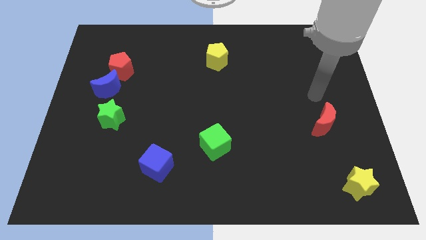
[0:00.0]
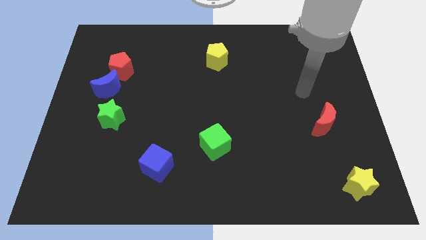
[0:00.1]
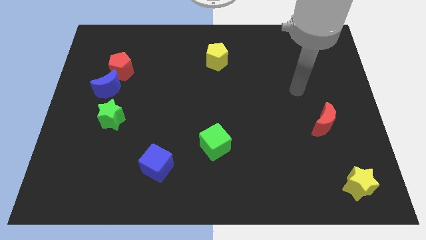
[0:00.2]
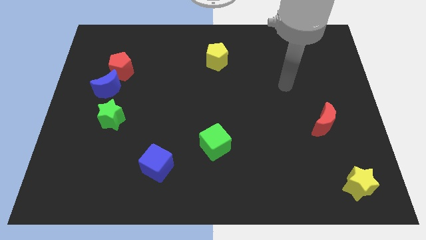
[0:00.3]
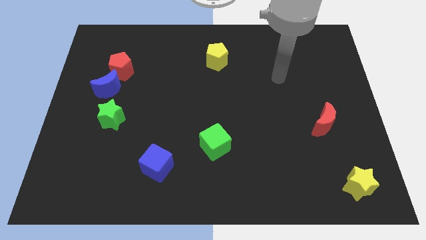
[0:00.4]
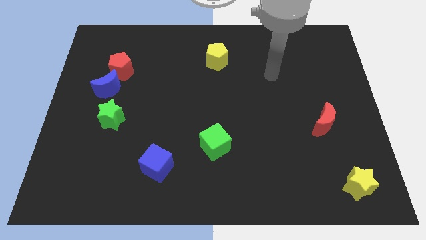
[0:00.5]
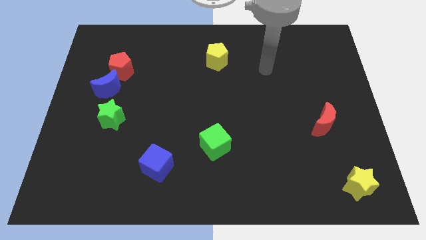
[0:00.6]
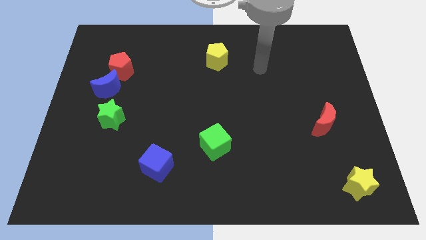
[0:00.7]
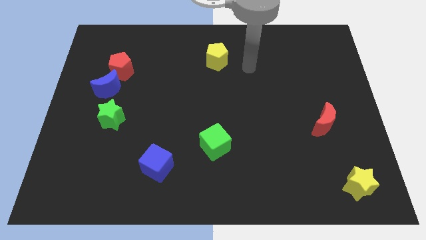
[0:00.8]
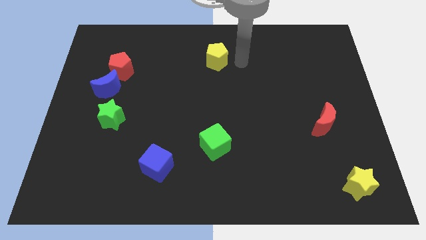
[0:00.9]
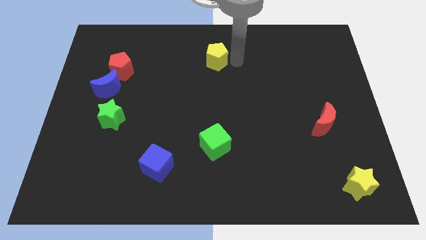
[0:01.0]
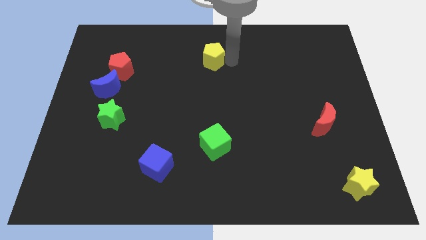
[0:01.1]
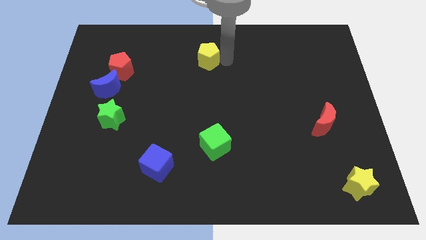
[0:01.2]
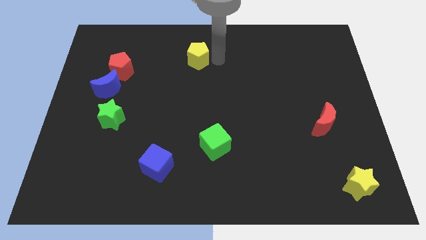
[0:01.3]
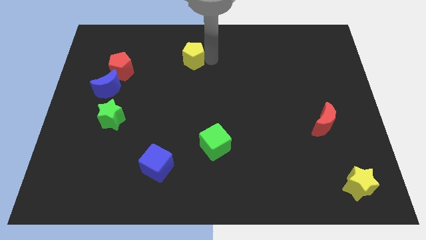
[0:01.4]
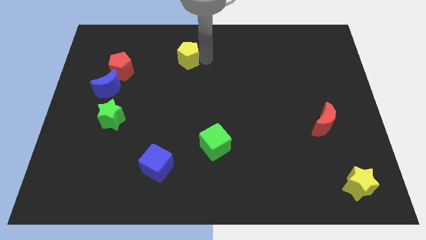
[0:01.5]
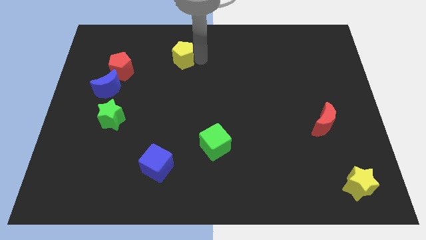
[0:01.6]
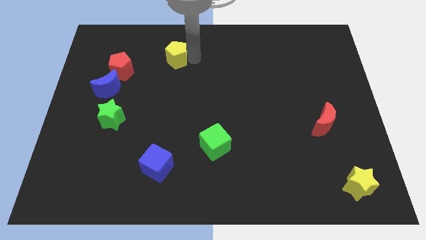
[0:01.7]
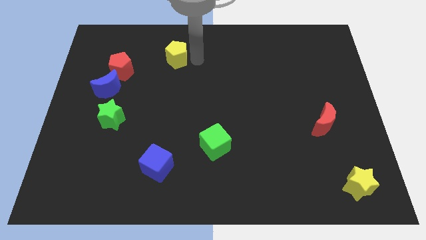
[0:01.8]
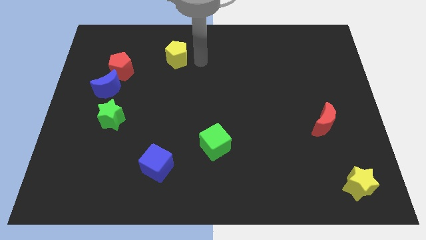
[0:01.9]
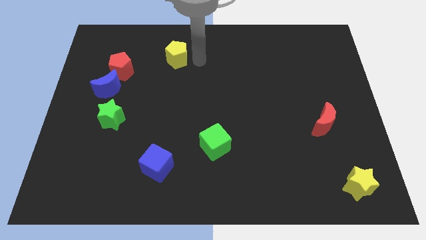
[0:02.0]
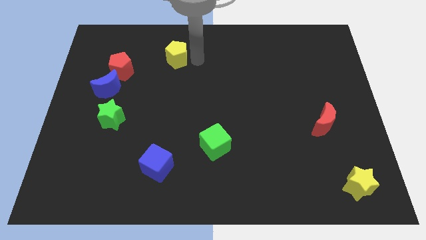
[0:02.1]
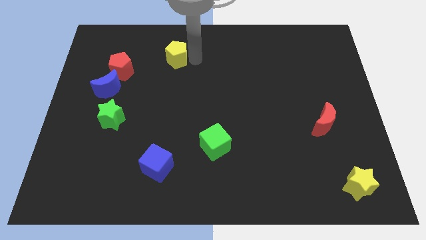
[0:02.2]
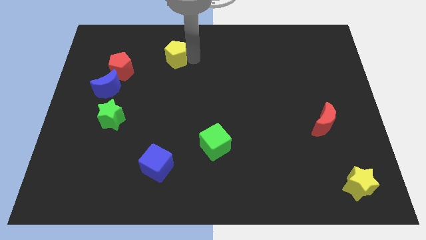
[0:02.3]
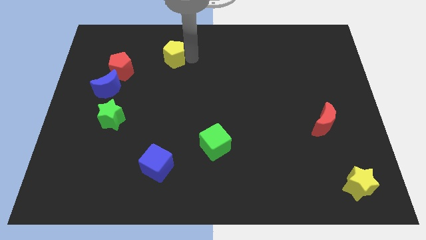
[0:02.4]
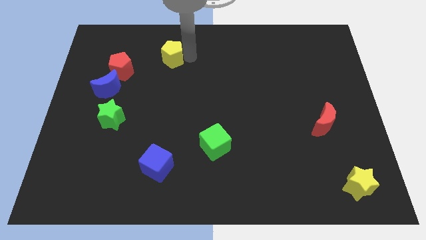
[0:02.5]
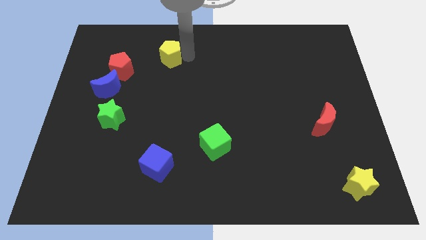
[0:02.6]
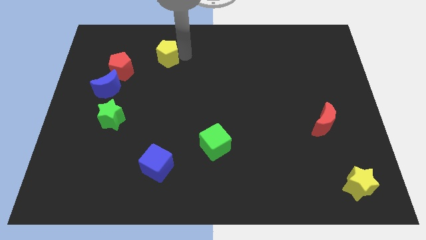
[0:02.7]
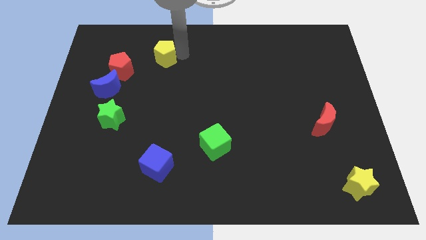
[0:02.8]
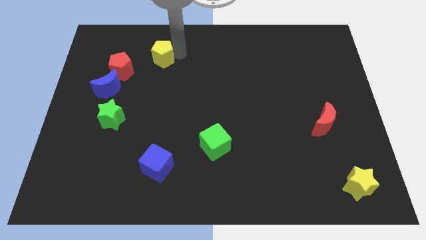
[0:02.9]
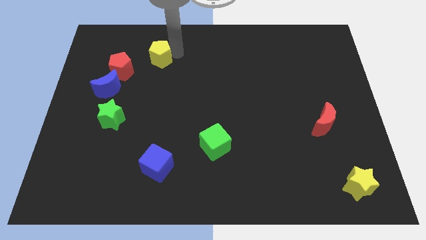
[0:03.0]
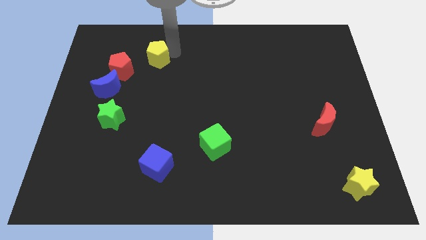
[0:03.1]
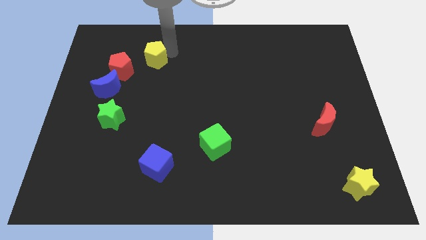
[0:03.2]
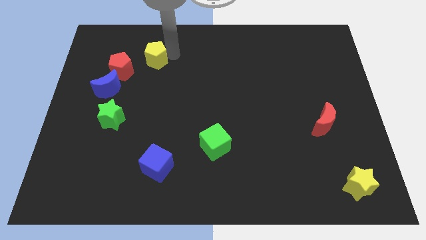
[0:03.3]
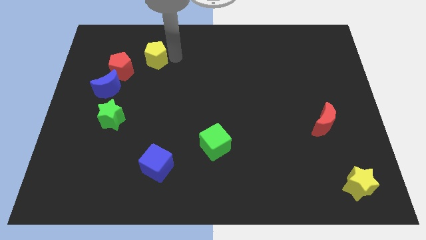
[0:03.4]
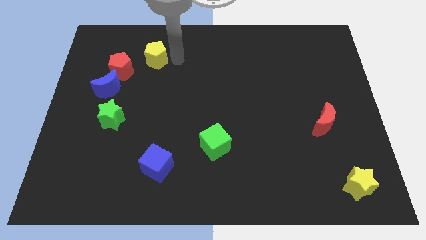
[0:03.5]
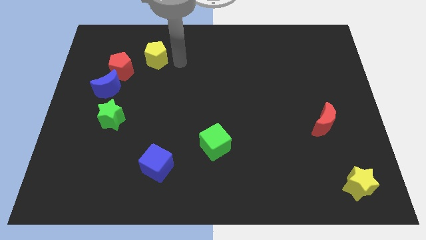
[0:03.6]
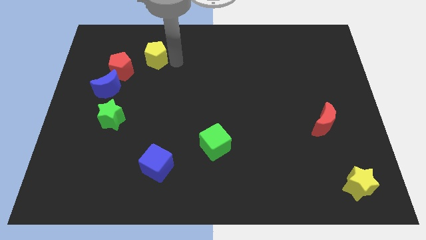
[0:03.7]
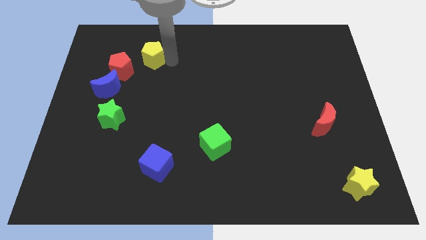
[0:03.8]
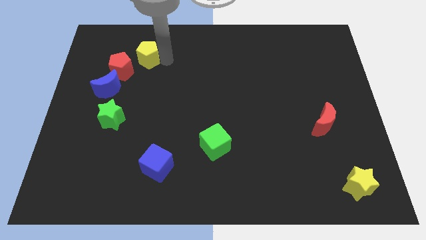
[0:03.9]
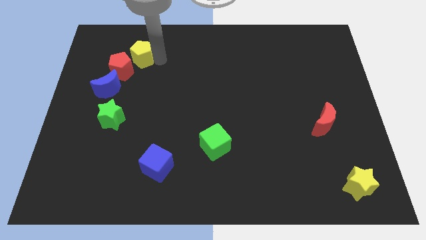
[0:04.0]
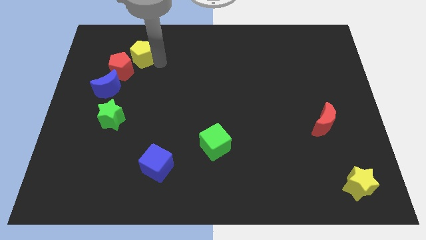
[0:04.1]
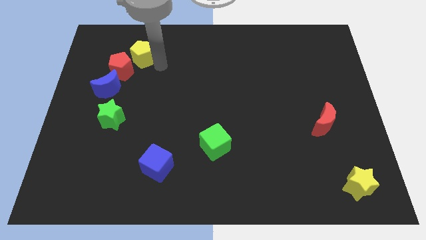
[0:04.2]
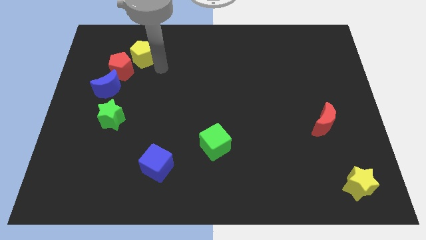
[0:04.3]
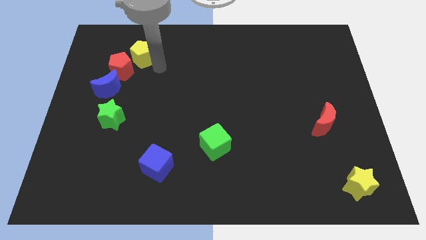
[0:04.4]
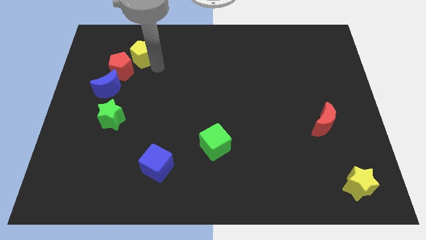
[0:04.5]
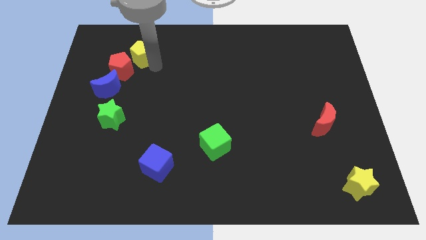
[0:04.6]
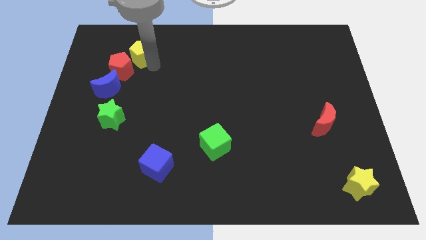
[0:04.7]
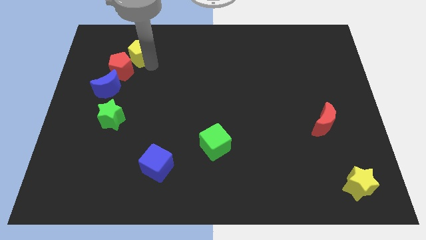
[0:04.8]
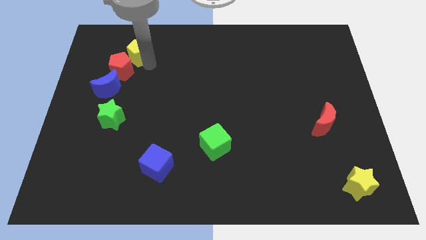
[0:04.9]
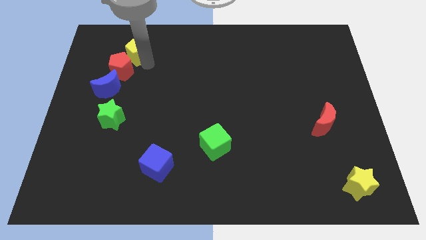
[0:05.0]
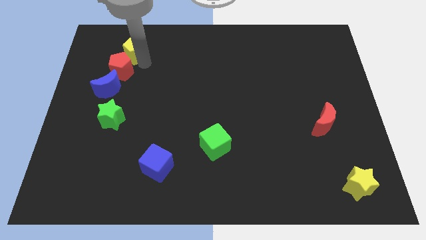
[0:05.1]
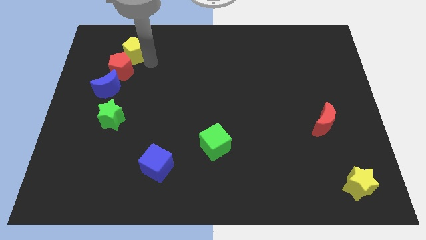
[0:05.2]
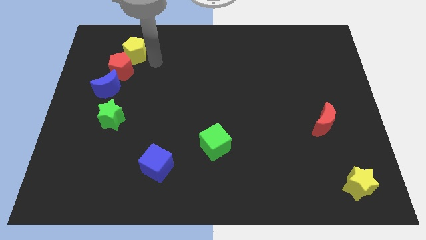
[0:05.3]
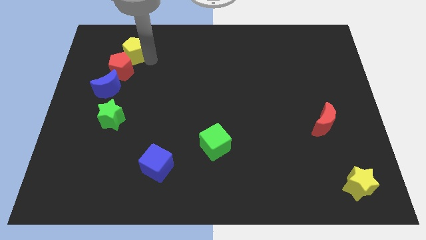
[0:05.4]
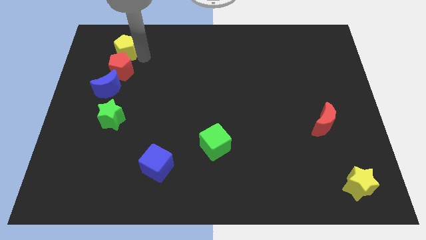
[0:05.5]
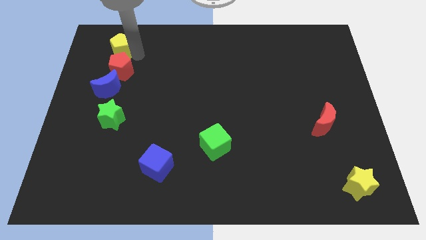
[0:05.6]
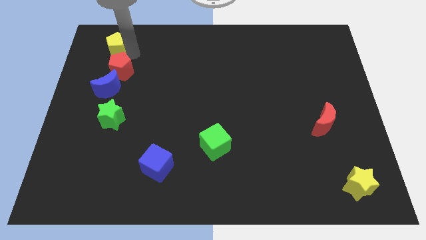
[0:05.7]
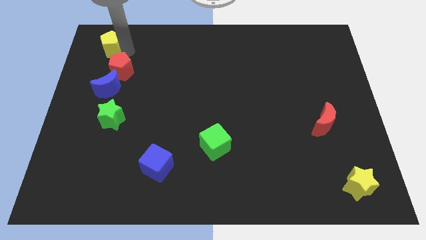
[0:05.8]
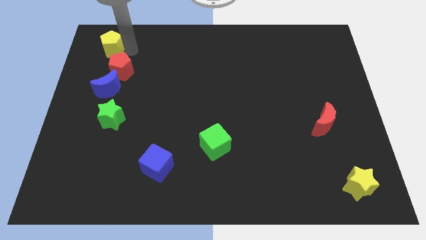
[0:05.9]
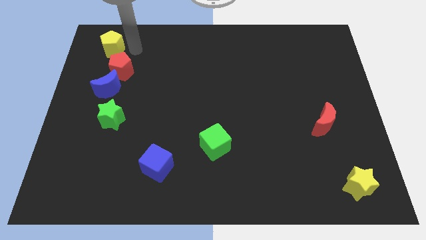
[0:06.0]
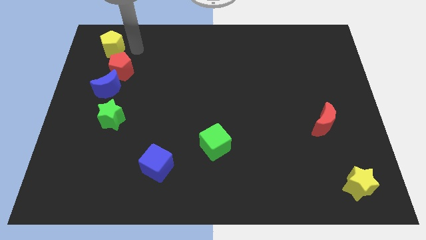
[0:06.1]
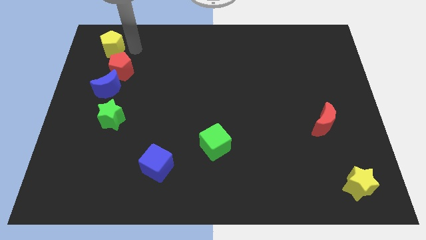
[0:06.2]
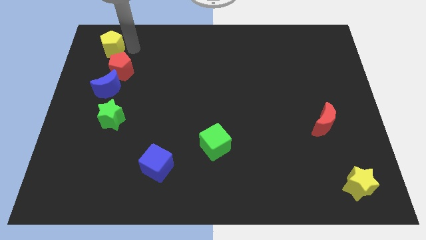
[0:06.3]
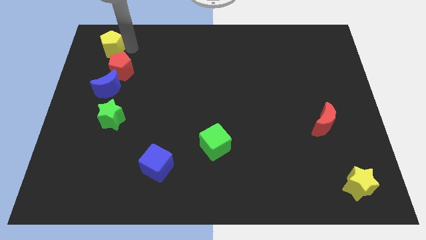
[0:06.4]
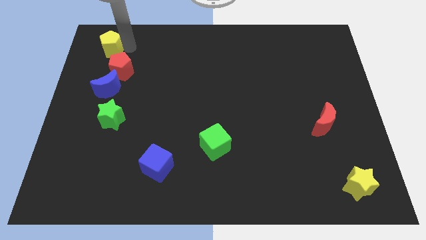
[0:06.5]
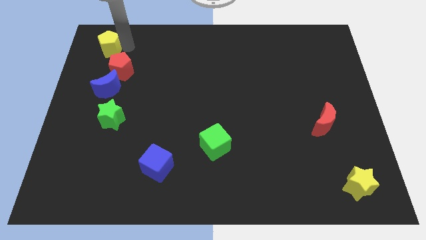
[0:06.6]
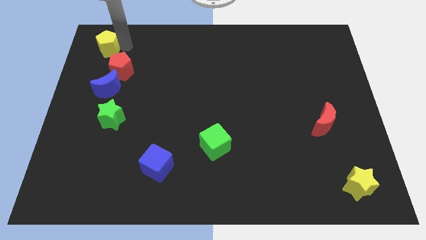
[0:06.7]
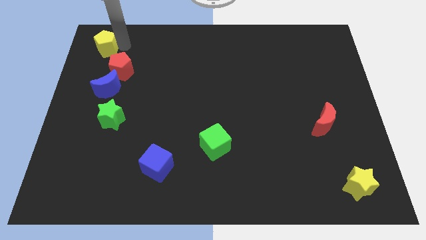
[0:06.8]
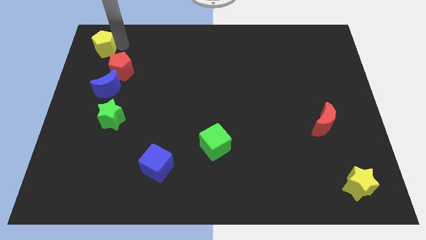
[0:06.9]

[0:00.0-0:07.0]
slide the yellow pentagon to the top left
